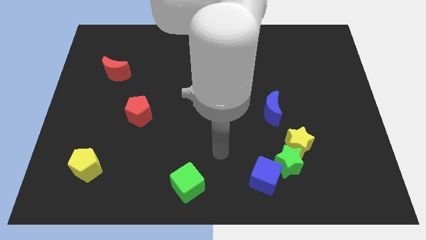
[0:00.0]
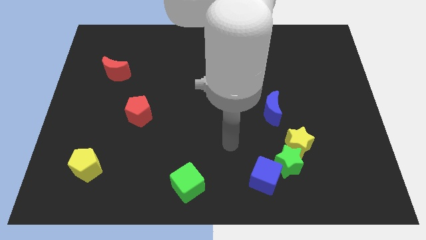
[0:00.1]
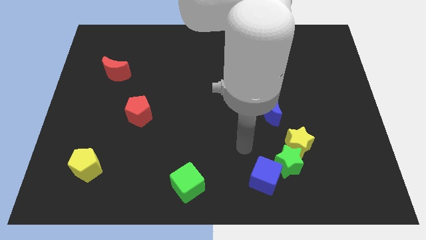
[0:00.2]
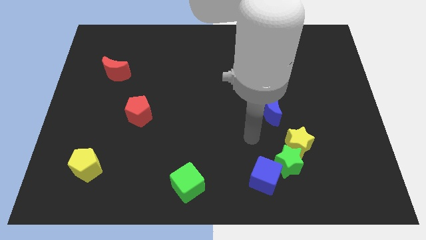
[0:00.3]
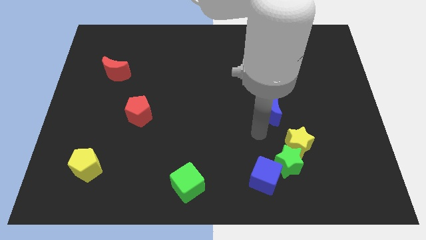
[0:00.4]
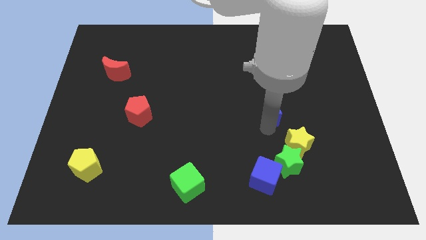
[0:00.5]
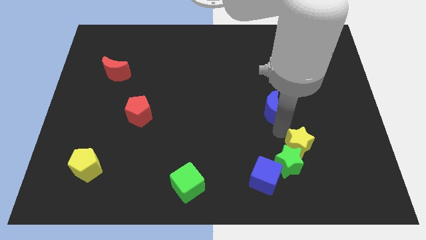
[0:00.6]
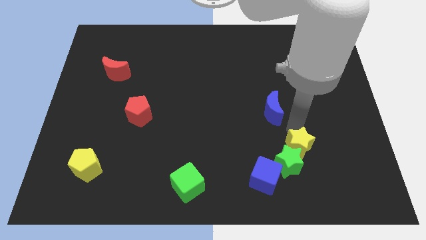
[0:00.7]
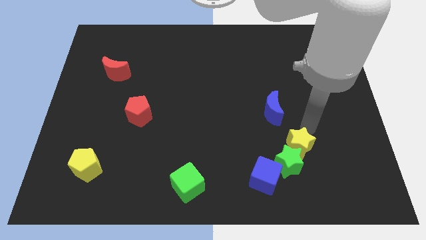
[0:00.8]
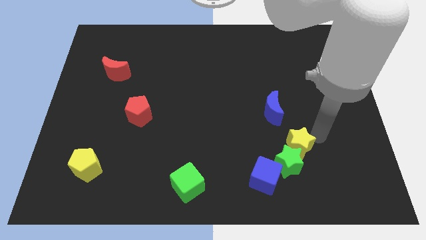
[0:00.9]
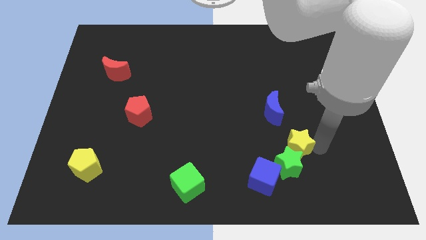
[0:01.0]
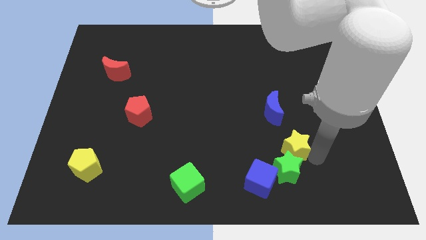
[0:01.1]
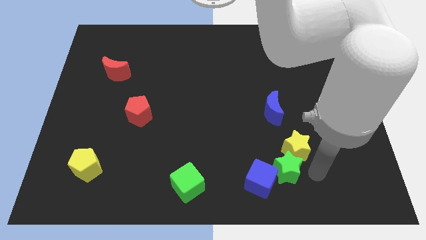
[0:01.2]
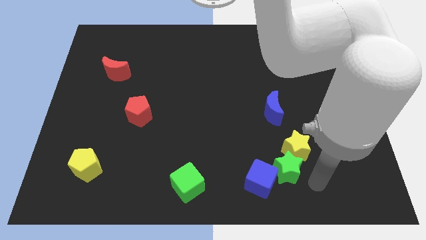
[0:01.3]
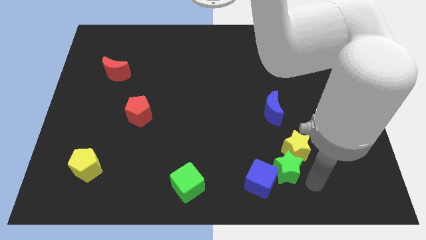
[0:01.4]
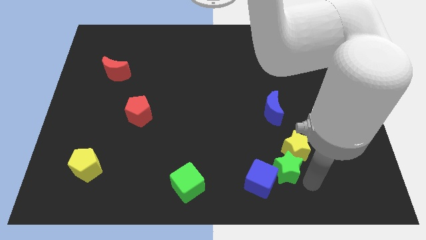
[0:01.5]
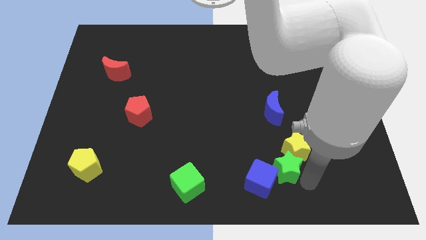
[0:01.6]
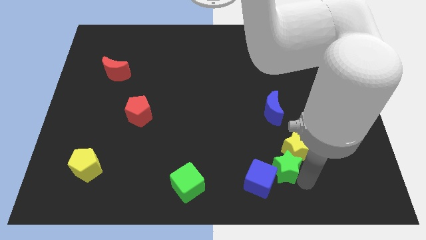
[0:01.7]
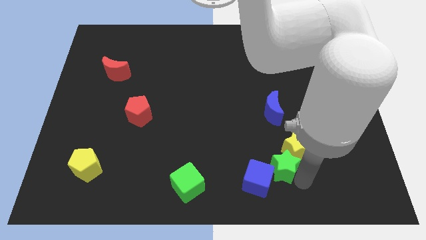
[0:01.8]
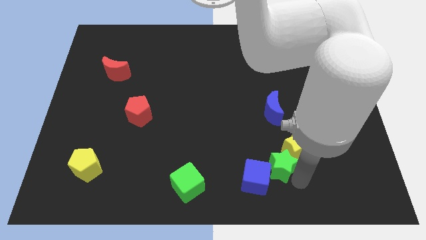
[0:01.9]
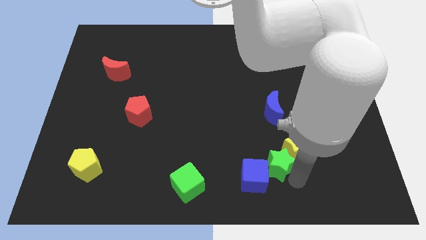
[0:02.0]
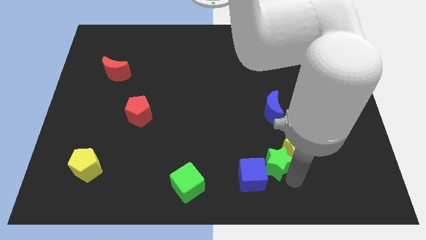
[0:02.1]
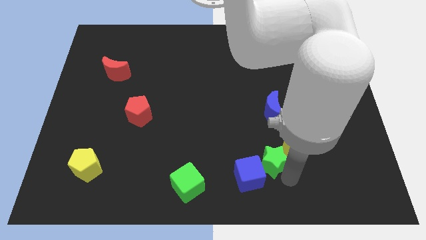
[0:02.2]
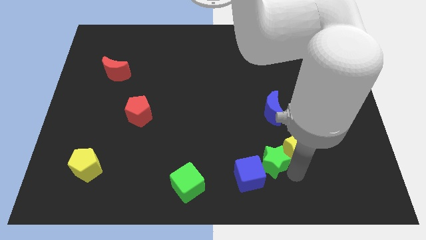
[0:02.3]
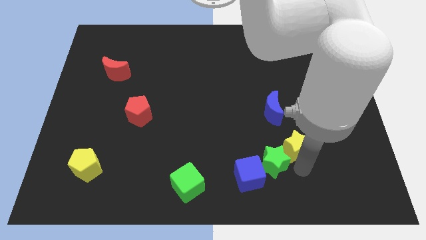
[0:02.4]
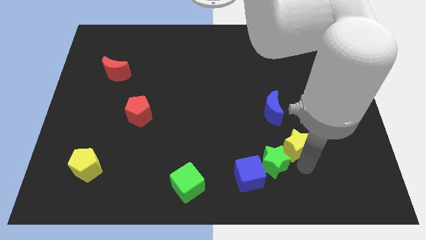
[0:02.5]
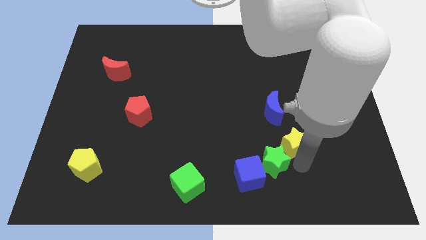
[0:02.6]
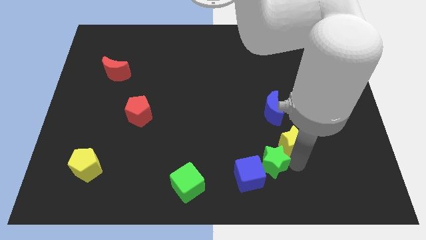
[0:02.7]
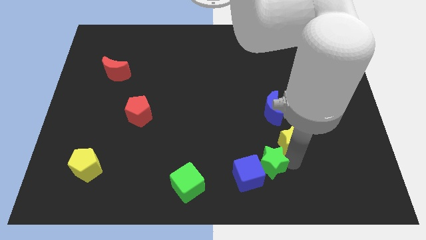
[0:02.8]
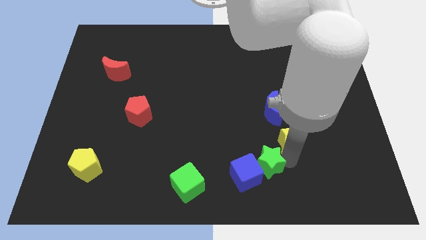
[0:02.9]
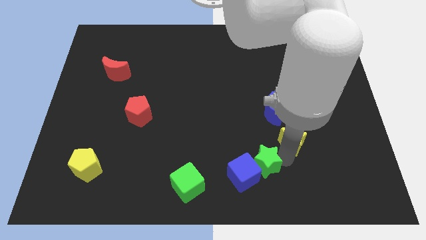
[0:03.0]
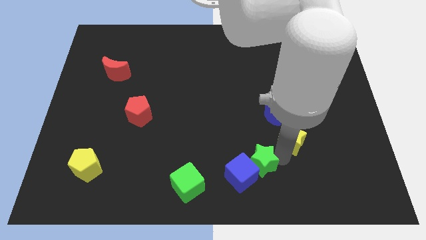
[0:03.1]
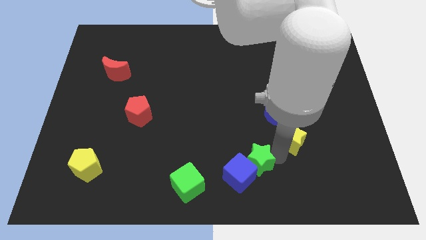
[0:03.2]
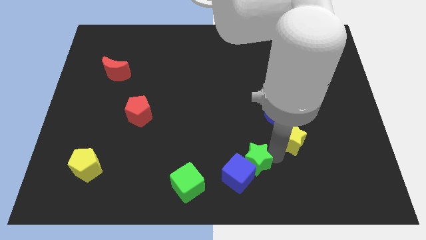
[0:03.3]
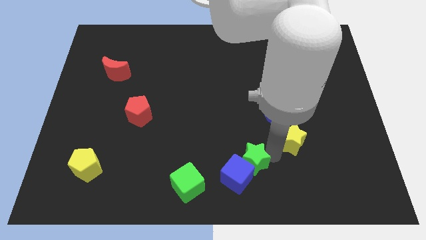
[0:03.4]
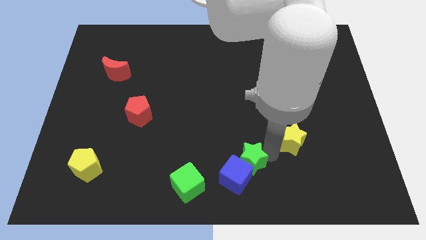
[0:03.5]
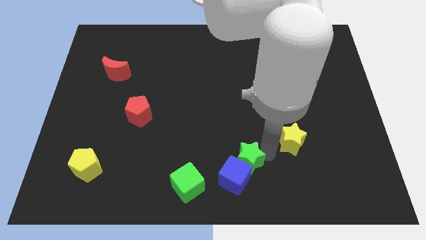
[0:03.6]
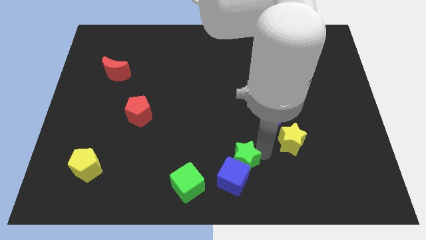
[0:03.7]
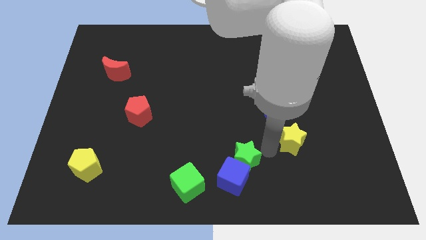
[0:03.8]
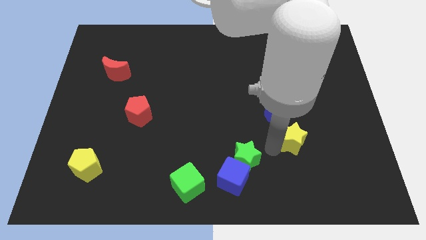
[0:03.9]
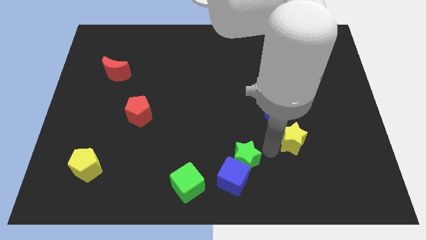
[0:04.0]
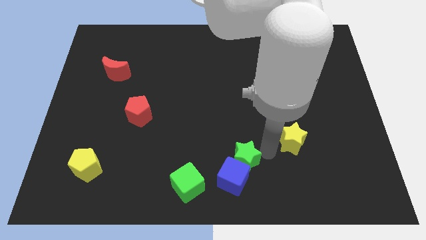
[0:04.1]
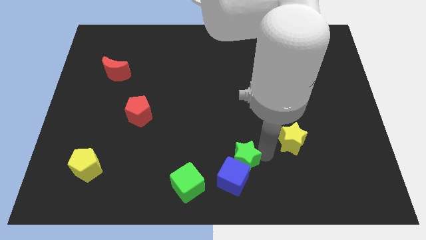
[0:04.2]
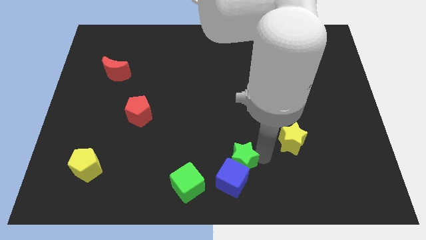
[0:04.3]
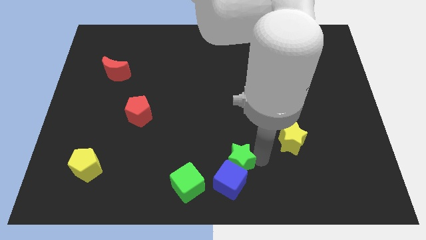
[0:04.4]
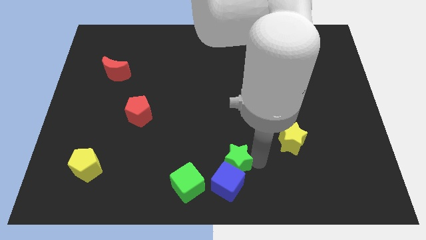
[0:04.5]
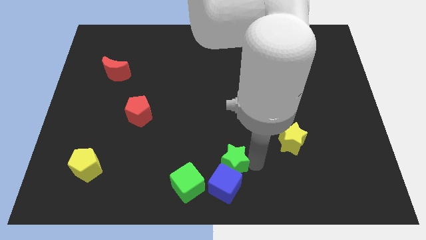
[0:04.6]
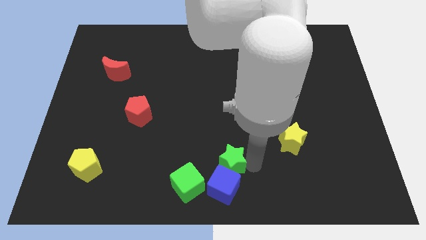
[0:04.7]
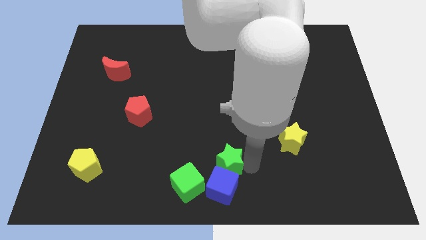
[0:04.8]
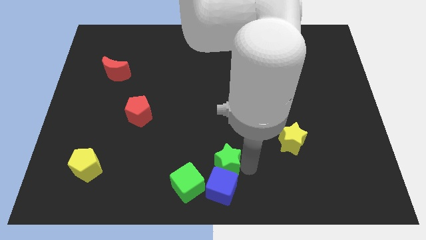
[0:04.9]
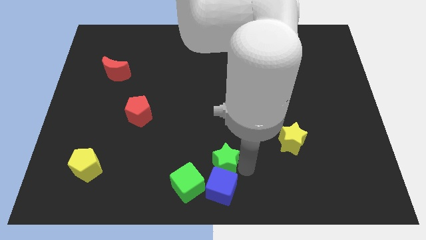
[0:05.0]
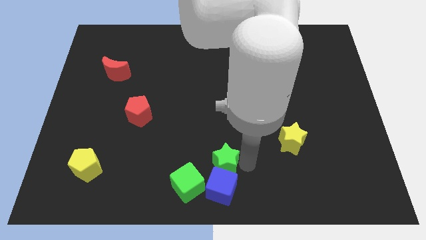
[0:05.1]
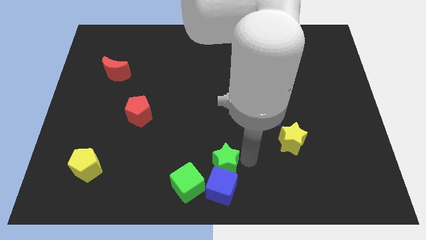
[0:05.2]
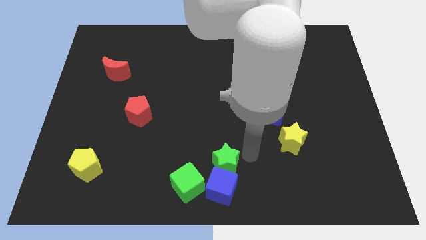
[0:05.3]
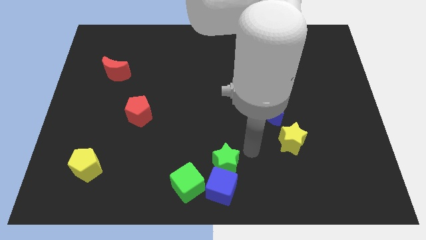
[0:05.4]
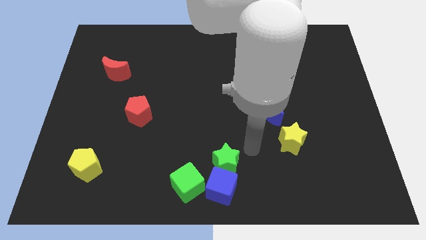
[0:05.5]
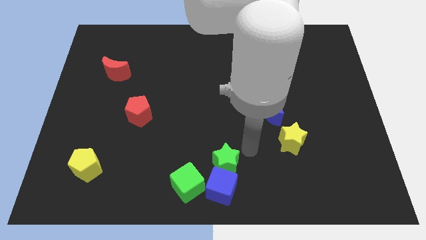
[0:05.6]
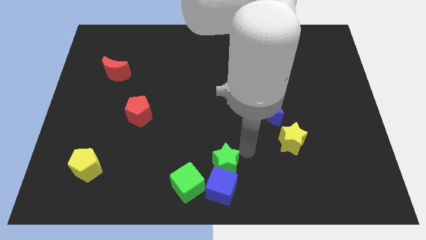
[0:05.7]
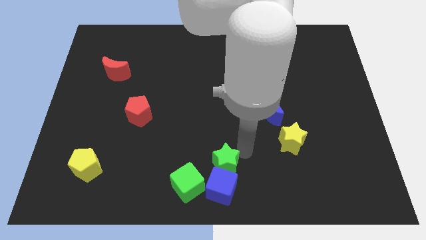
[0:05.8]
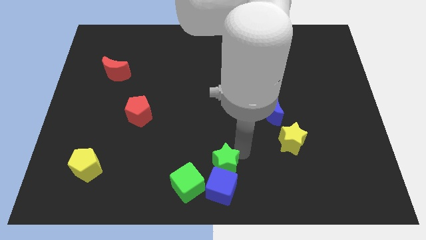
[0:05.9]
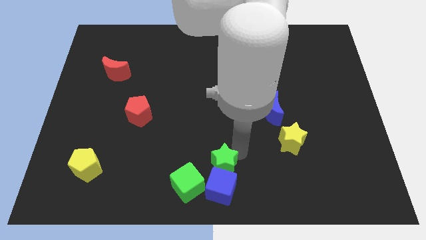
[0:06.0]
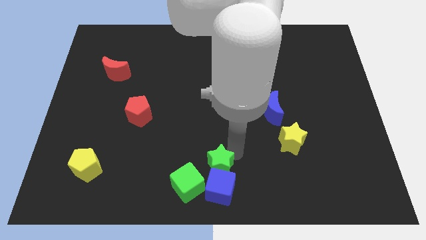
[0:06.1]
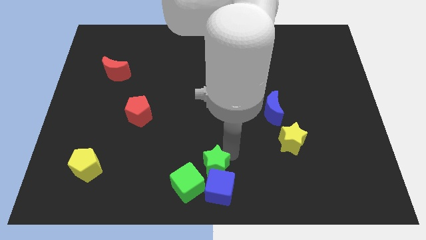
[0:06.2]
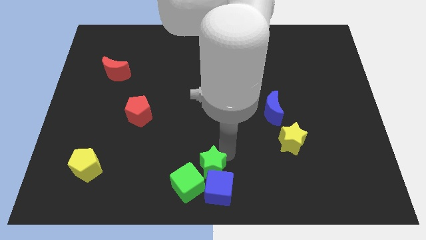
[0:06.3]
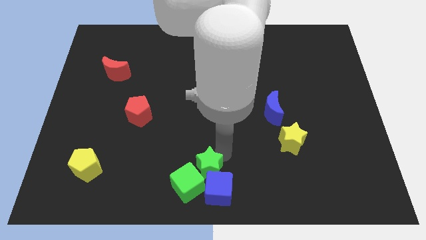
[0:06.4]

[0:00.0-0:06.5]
slide the green star close to the green cube

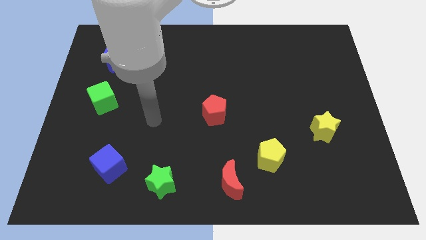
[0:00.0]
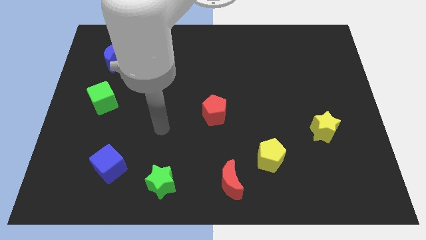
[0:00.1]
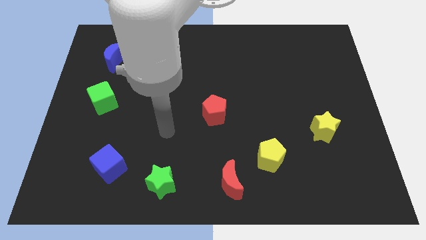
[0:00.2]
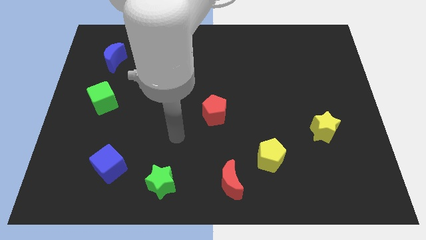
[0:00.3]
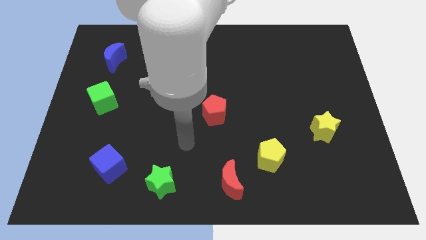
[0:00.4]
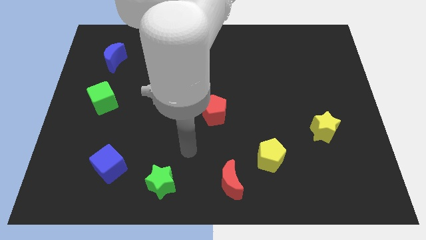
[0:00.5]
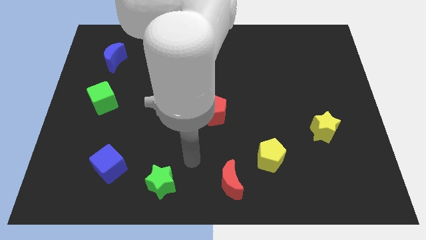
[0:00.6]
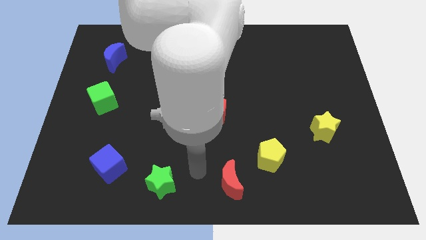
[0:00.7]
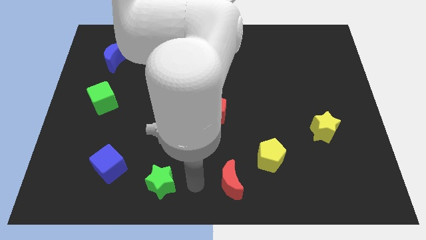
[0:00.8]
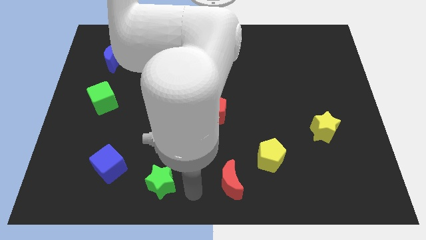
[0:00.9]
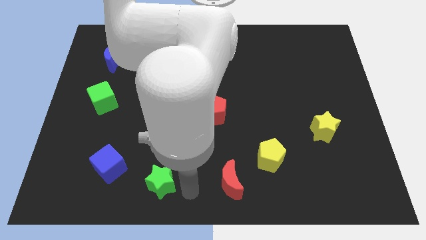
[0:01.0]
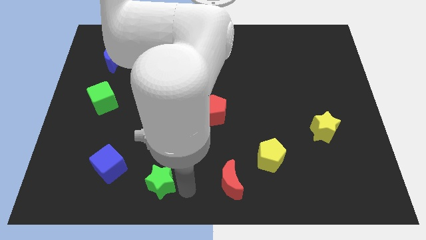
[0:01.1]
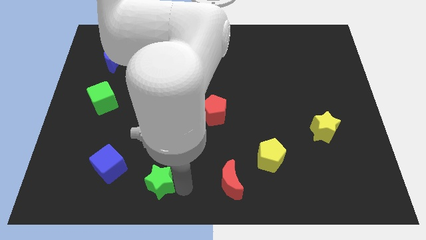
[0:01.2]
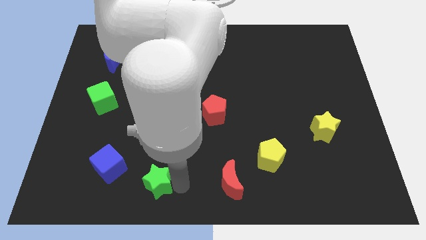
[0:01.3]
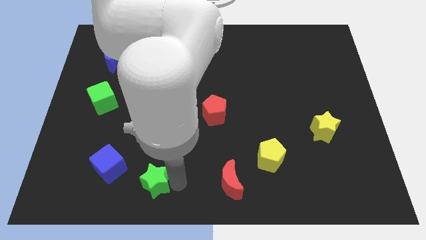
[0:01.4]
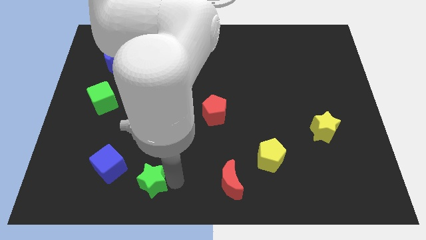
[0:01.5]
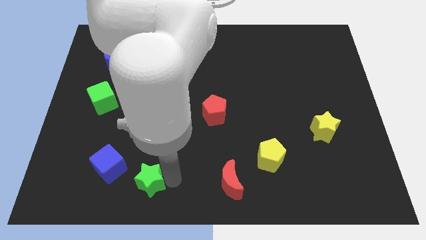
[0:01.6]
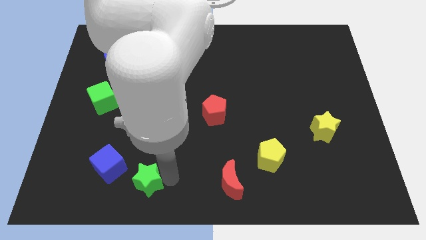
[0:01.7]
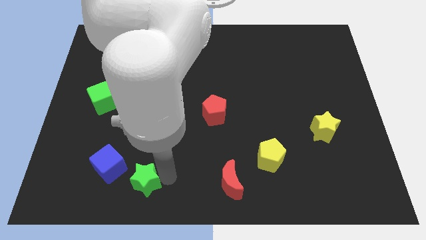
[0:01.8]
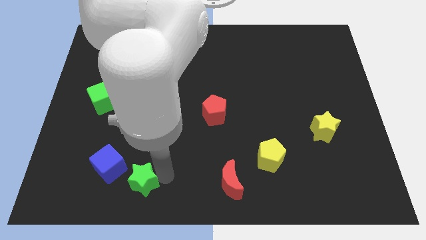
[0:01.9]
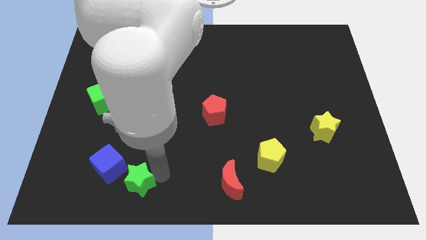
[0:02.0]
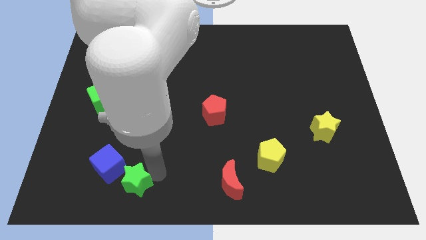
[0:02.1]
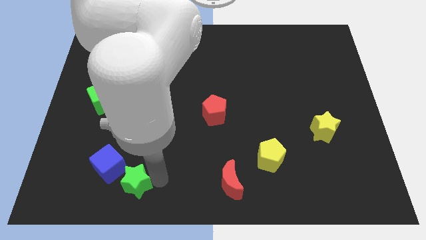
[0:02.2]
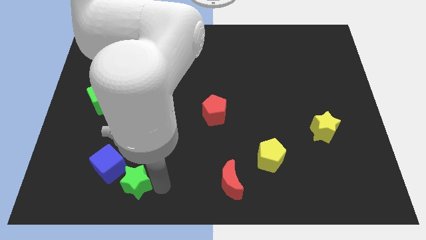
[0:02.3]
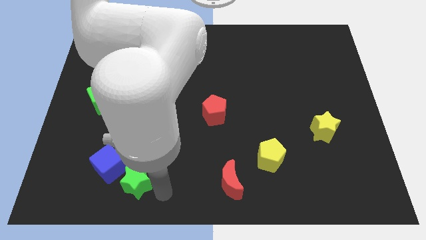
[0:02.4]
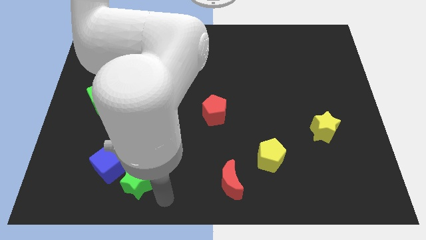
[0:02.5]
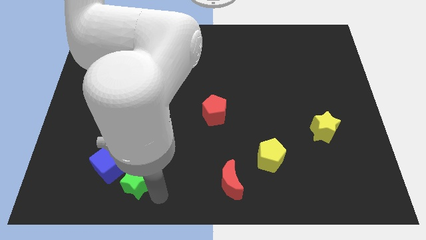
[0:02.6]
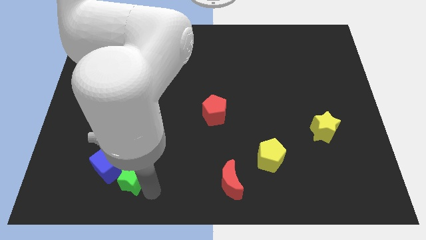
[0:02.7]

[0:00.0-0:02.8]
move the green star towards the blue cube
